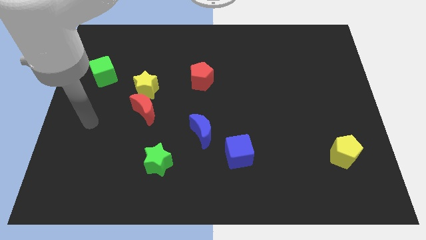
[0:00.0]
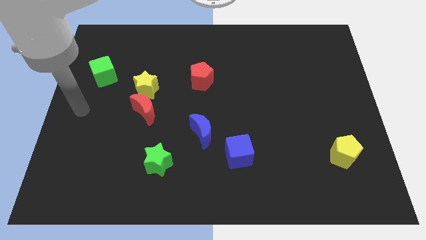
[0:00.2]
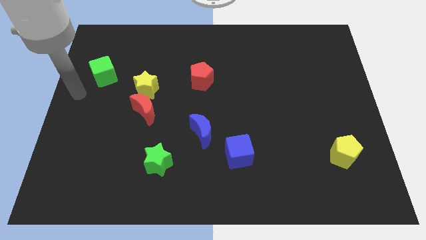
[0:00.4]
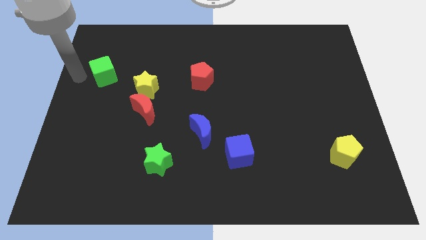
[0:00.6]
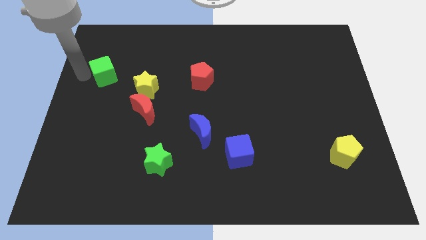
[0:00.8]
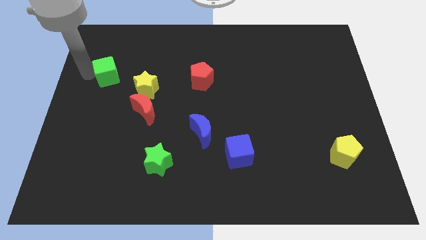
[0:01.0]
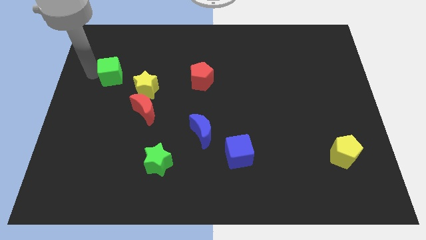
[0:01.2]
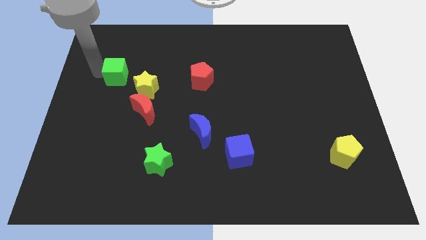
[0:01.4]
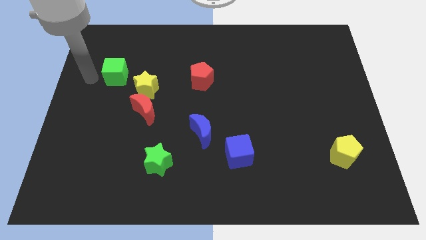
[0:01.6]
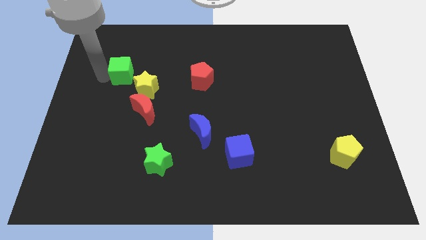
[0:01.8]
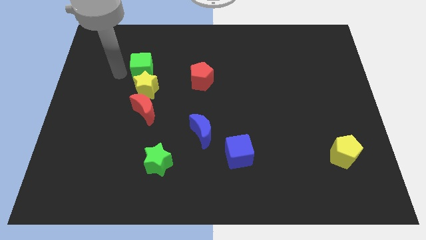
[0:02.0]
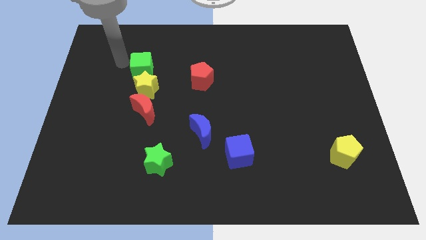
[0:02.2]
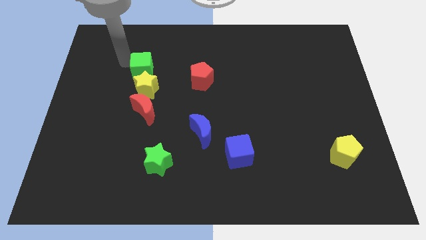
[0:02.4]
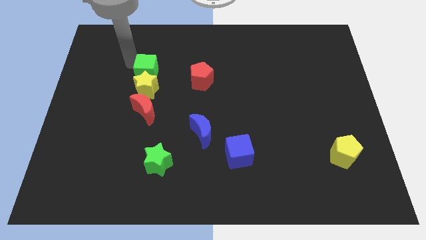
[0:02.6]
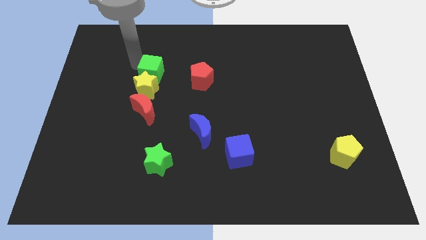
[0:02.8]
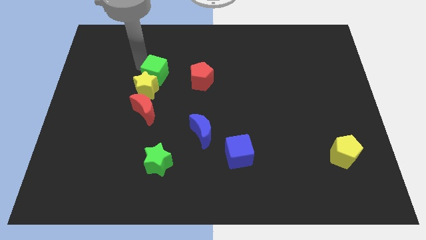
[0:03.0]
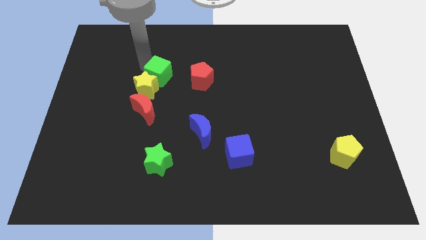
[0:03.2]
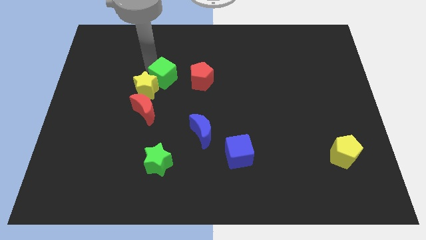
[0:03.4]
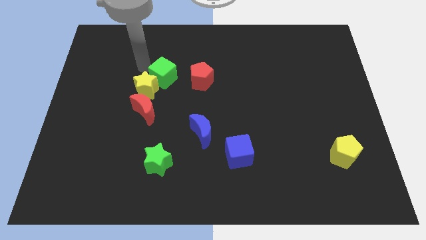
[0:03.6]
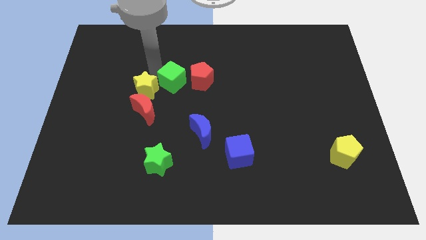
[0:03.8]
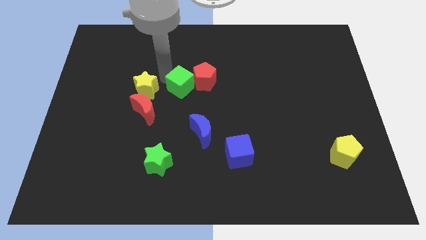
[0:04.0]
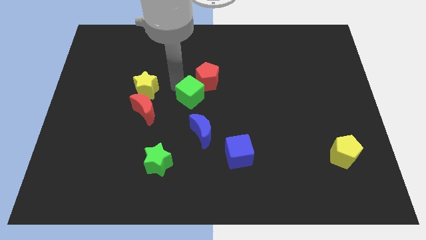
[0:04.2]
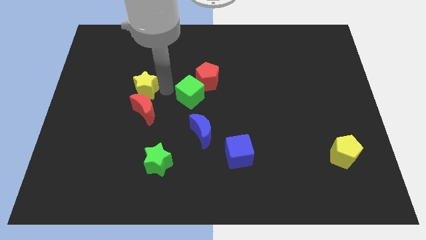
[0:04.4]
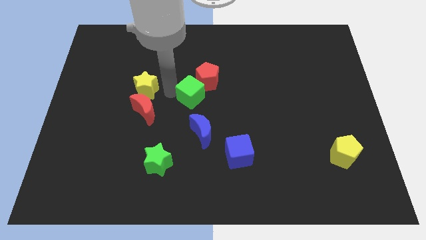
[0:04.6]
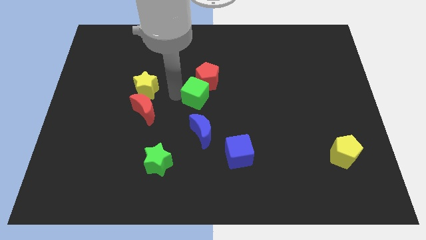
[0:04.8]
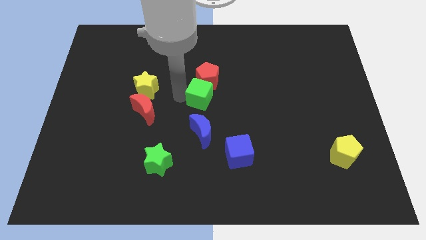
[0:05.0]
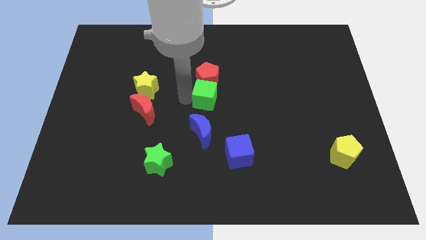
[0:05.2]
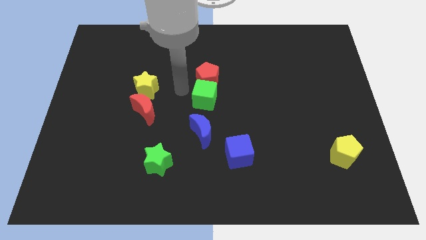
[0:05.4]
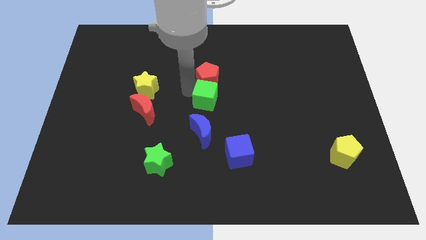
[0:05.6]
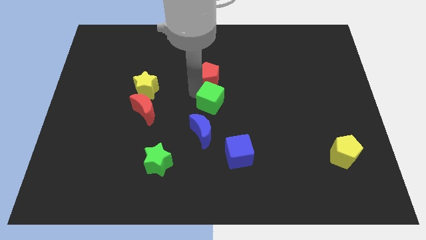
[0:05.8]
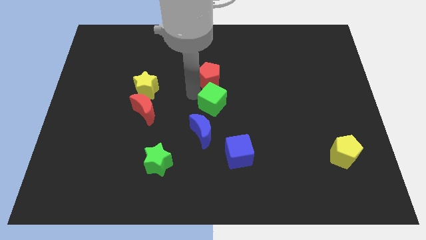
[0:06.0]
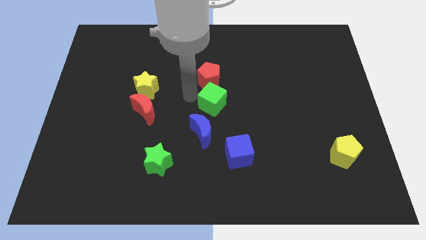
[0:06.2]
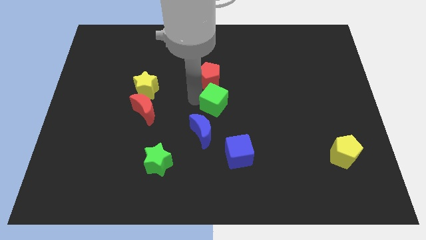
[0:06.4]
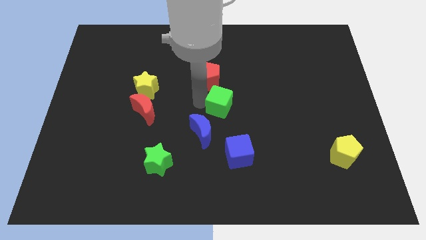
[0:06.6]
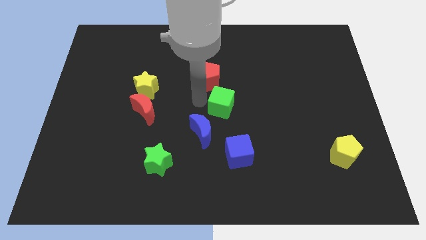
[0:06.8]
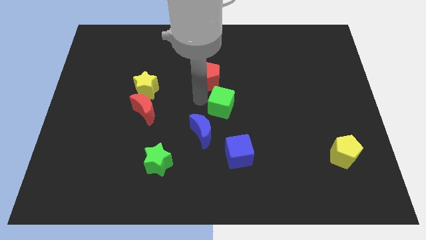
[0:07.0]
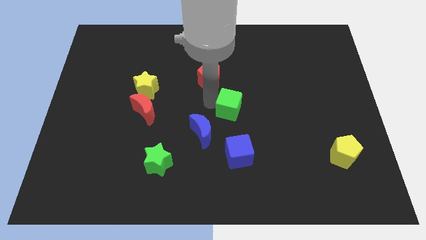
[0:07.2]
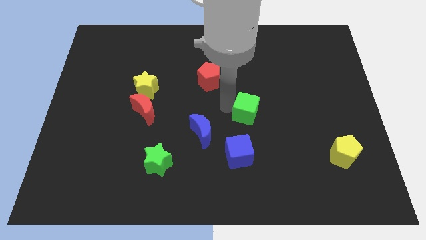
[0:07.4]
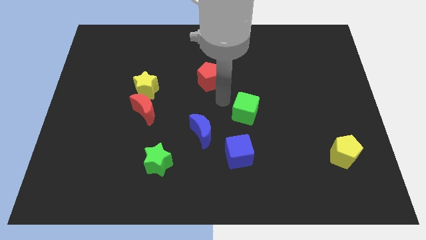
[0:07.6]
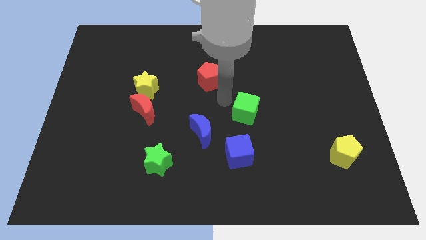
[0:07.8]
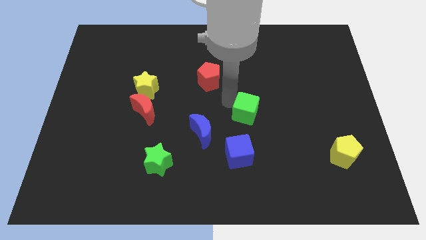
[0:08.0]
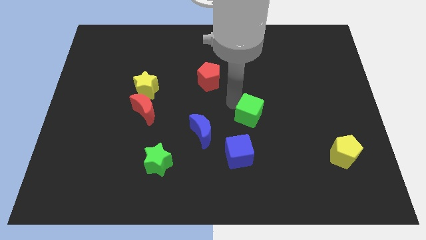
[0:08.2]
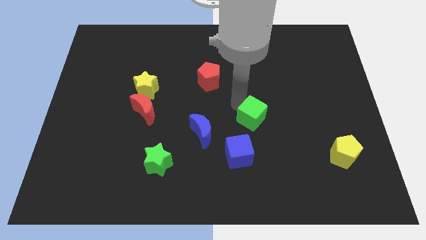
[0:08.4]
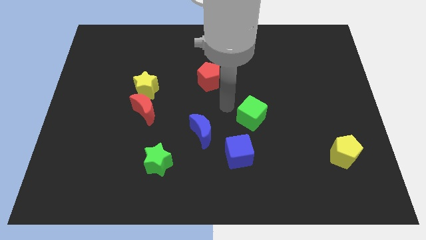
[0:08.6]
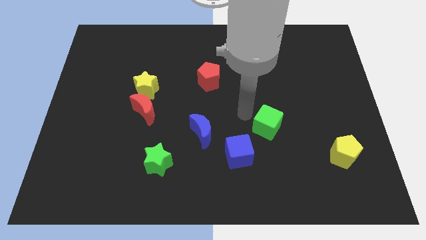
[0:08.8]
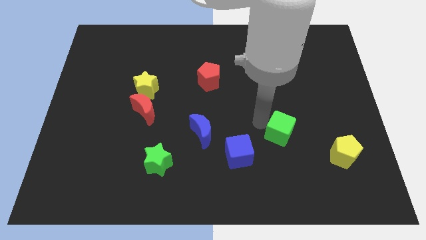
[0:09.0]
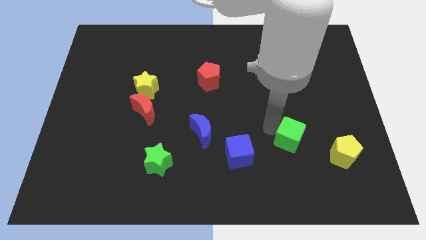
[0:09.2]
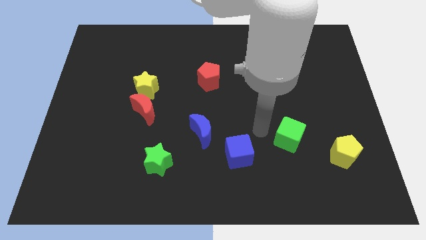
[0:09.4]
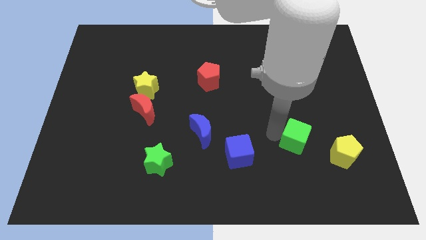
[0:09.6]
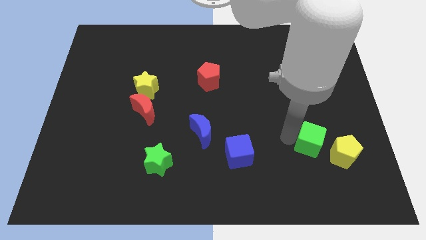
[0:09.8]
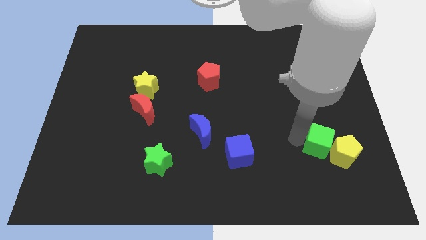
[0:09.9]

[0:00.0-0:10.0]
slide the green cube to the yellow pentagon

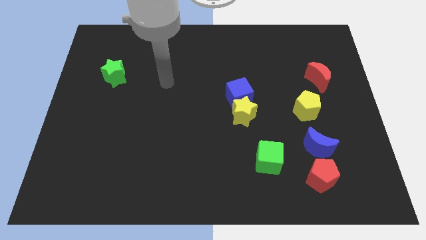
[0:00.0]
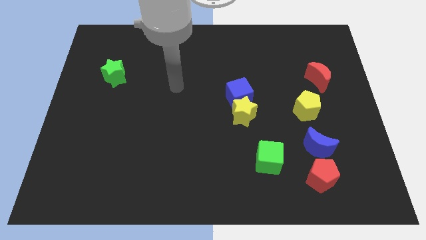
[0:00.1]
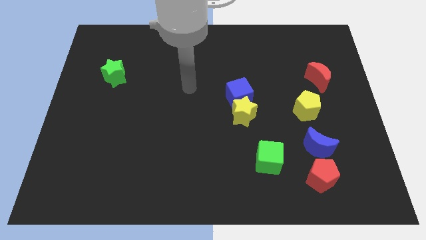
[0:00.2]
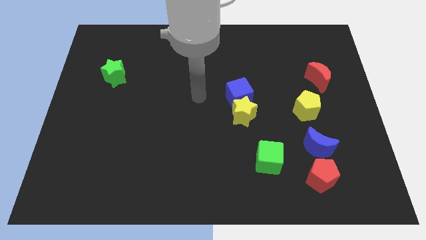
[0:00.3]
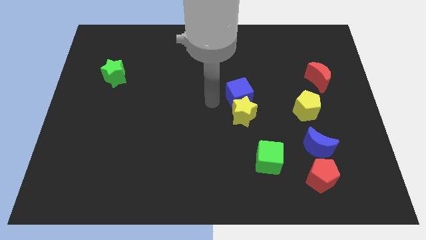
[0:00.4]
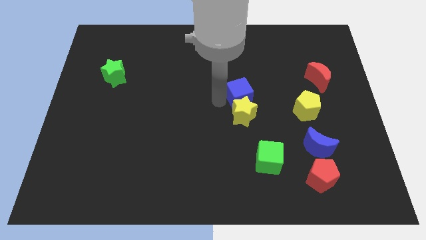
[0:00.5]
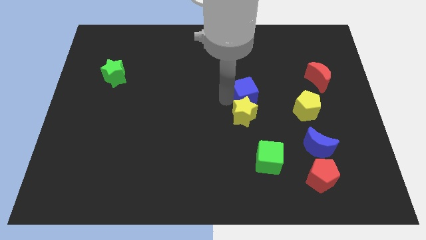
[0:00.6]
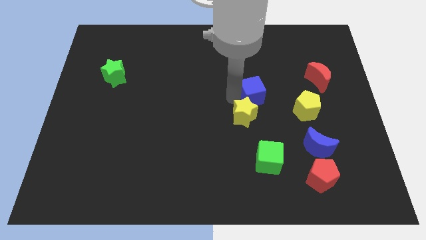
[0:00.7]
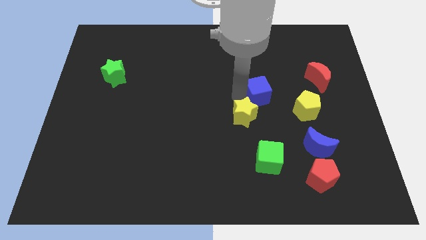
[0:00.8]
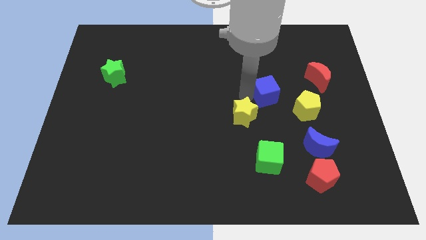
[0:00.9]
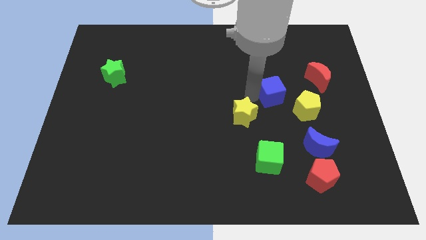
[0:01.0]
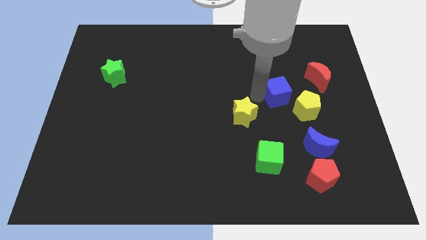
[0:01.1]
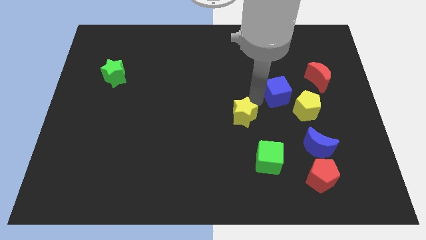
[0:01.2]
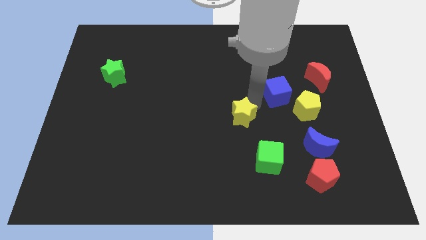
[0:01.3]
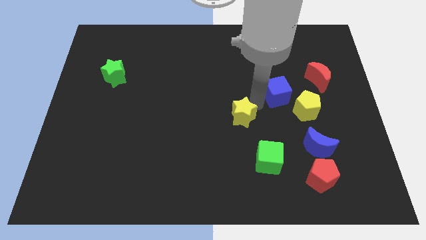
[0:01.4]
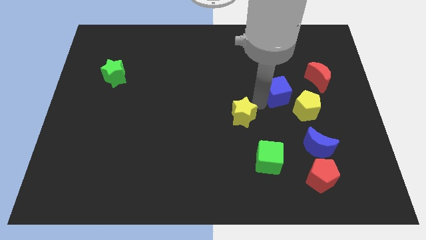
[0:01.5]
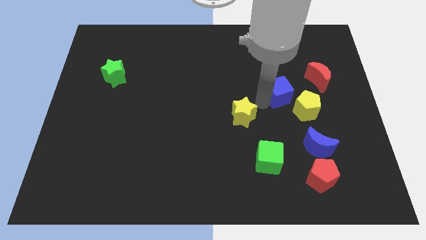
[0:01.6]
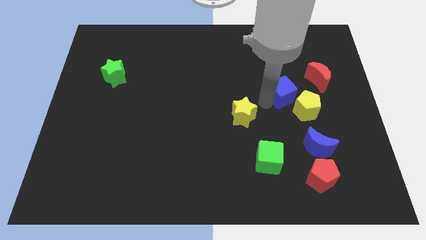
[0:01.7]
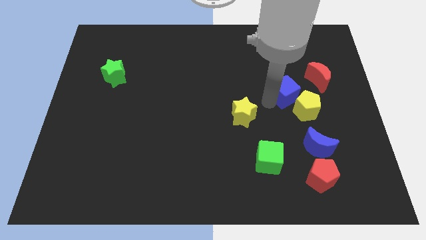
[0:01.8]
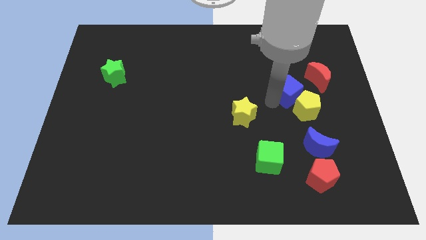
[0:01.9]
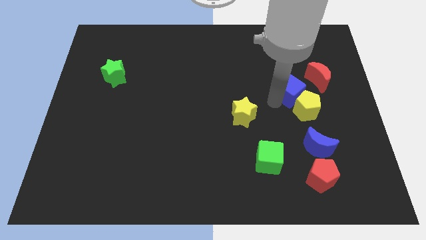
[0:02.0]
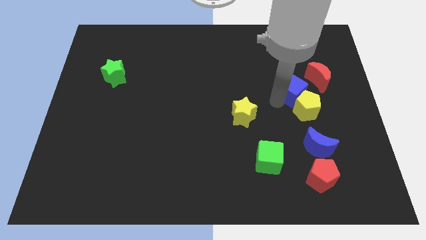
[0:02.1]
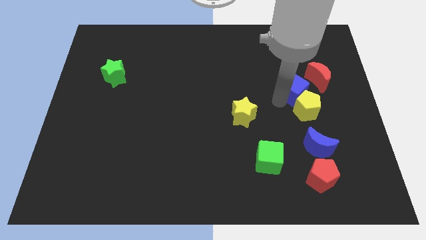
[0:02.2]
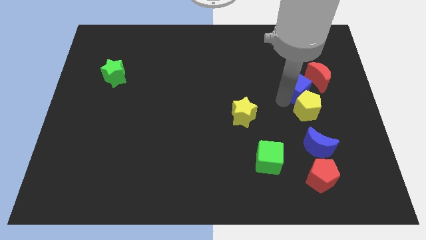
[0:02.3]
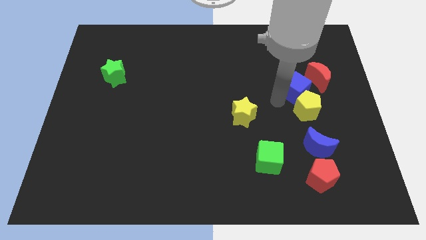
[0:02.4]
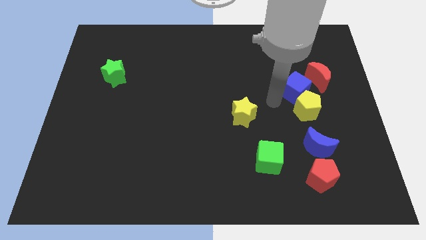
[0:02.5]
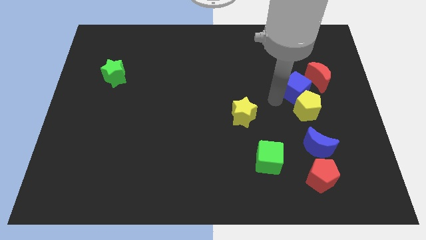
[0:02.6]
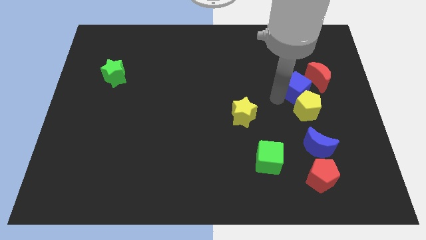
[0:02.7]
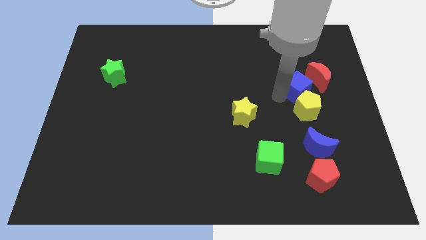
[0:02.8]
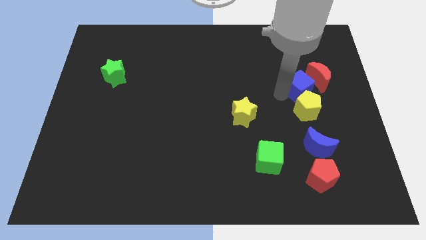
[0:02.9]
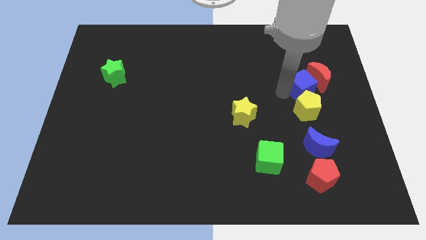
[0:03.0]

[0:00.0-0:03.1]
put the blue cube towards the red moon
